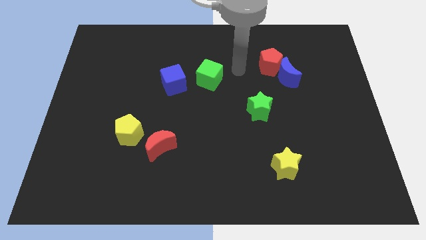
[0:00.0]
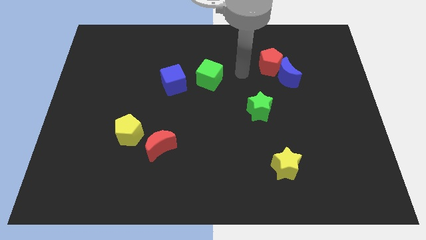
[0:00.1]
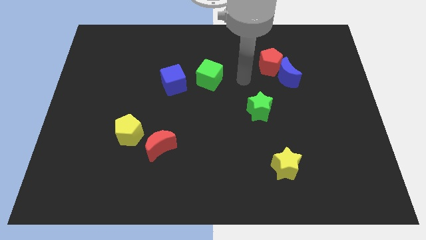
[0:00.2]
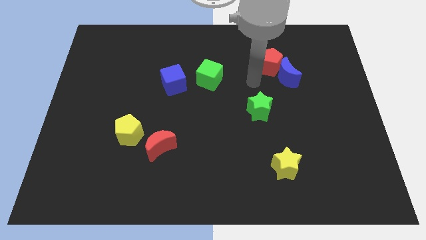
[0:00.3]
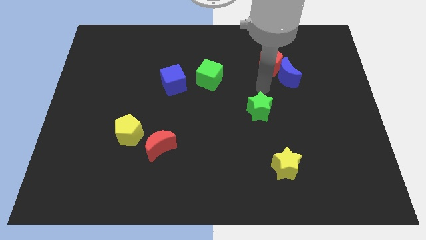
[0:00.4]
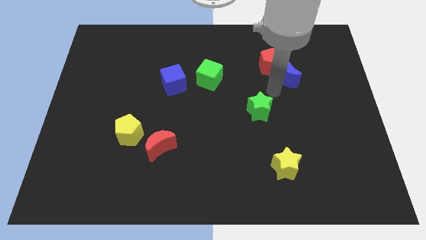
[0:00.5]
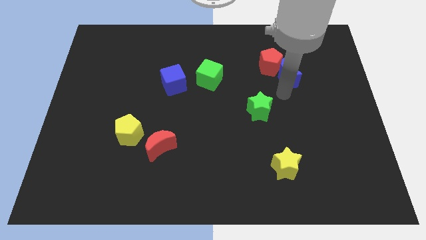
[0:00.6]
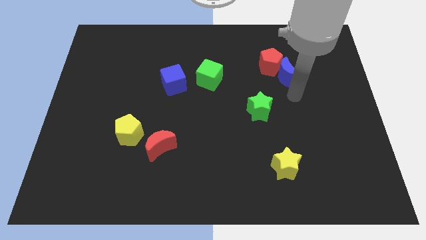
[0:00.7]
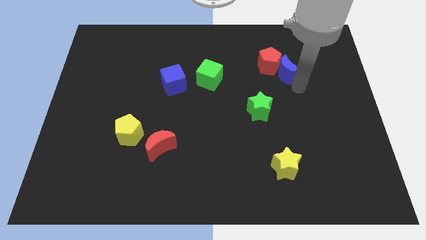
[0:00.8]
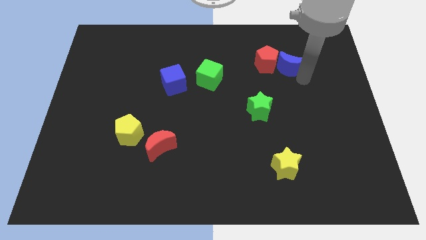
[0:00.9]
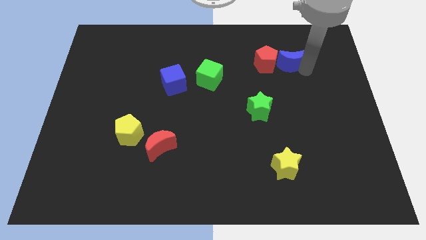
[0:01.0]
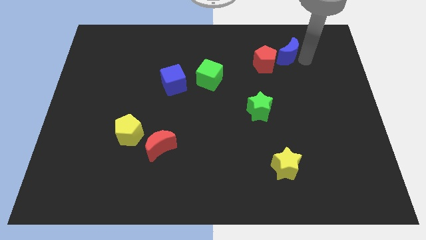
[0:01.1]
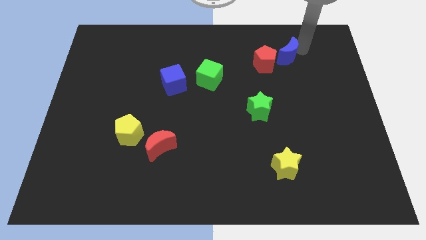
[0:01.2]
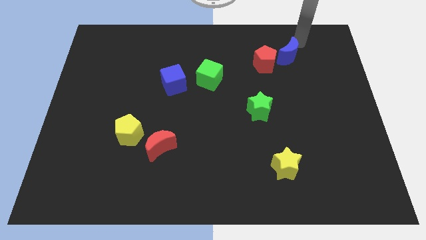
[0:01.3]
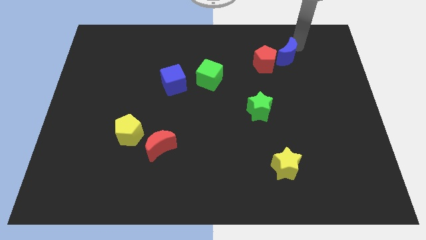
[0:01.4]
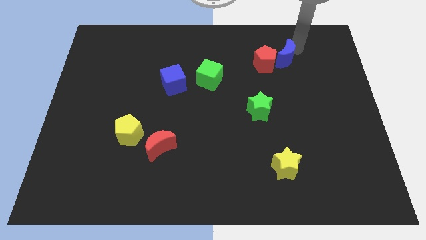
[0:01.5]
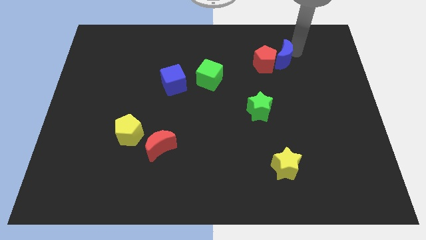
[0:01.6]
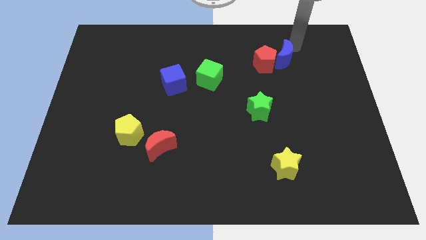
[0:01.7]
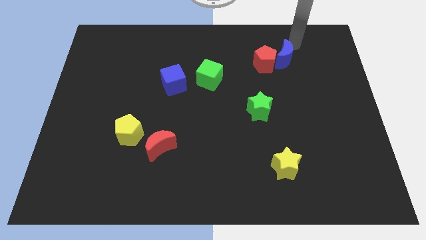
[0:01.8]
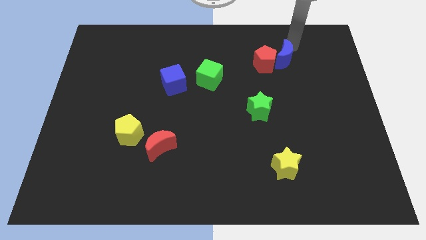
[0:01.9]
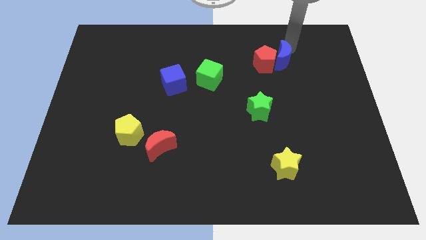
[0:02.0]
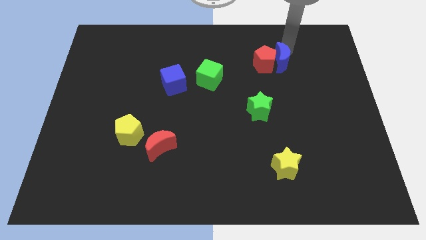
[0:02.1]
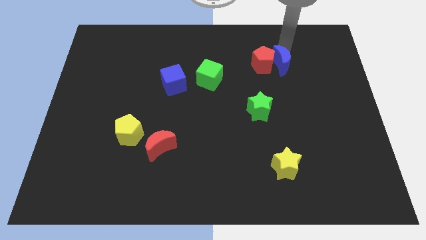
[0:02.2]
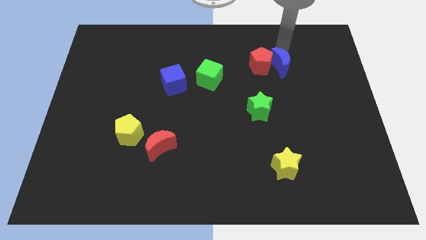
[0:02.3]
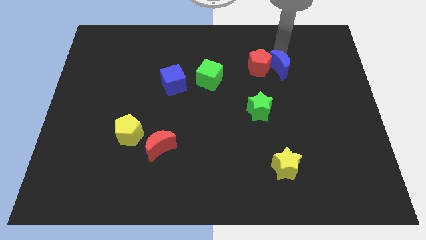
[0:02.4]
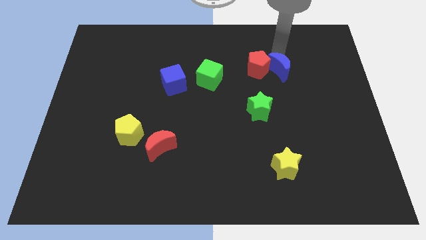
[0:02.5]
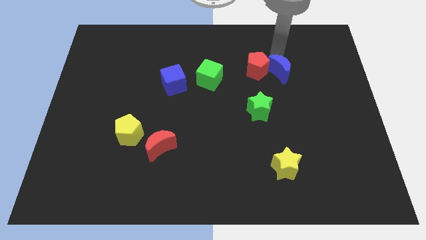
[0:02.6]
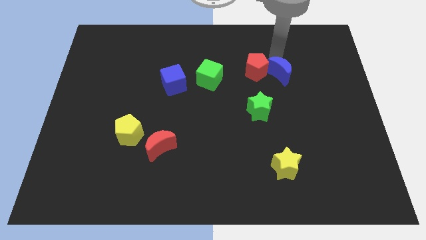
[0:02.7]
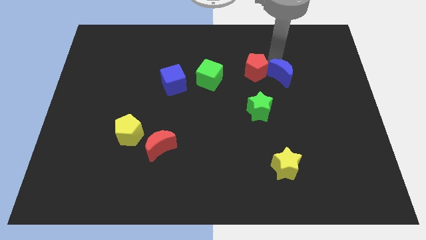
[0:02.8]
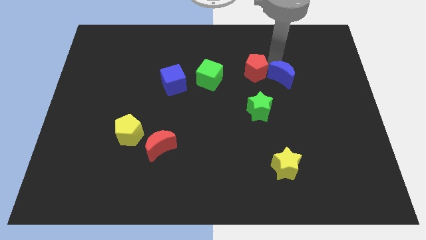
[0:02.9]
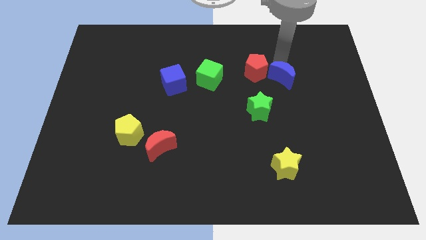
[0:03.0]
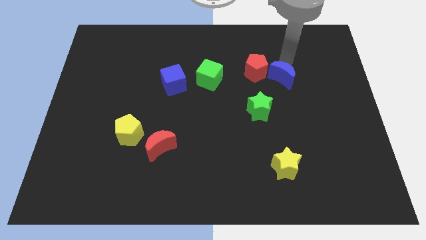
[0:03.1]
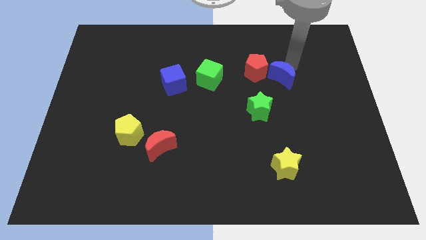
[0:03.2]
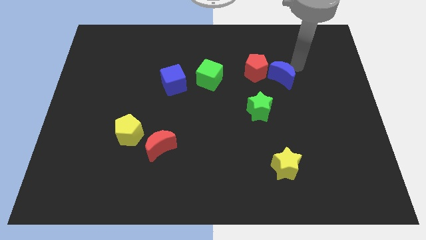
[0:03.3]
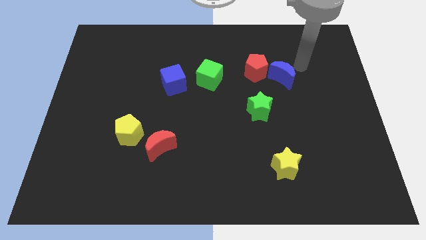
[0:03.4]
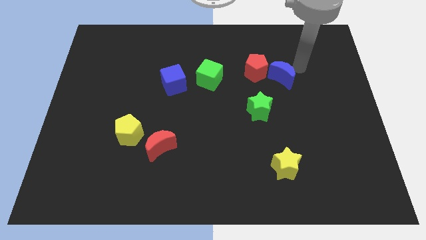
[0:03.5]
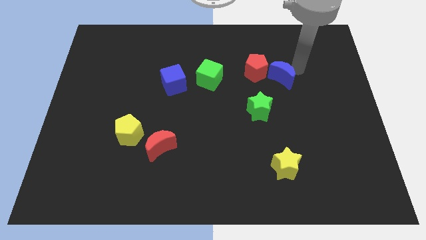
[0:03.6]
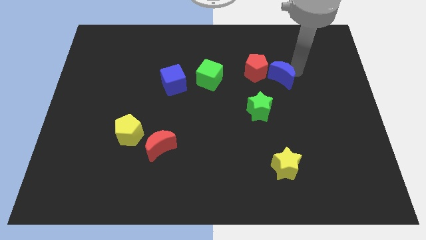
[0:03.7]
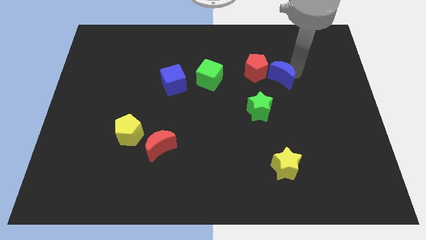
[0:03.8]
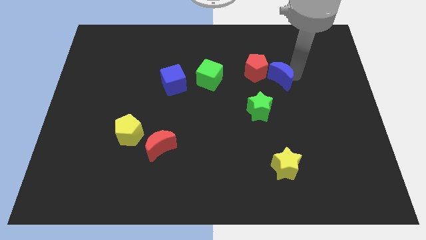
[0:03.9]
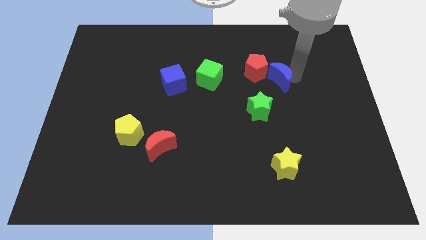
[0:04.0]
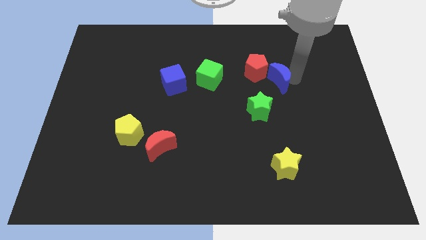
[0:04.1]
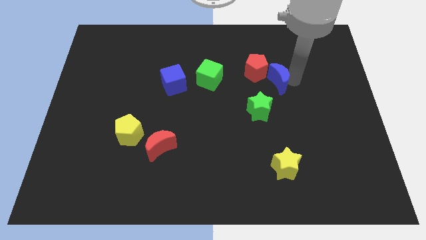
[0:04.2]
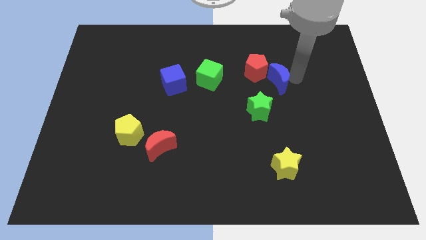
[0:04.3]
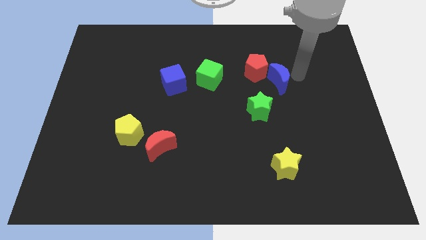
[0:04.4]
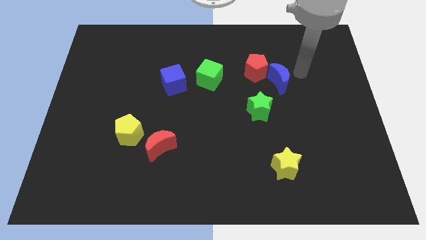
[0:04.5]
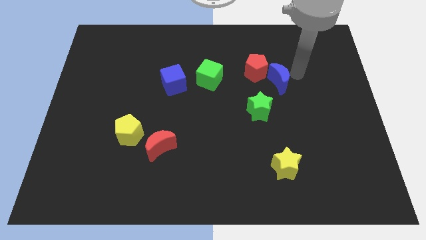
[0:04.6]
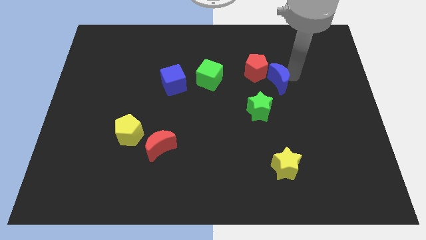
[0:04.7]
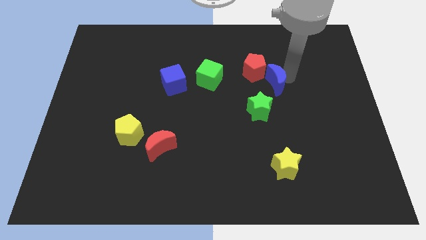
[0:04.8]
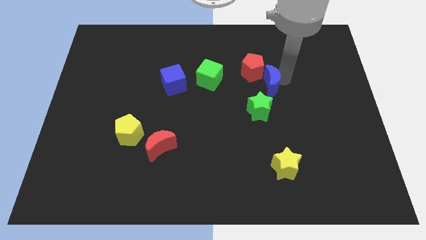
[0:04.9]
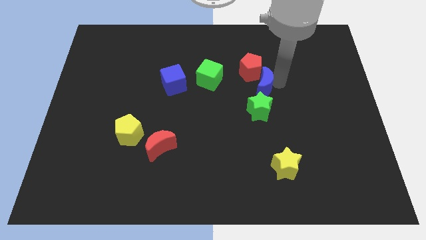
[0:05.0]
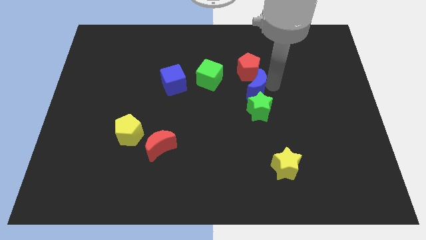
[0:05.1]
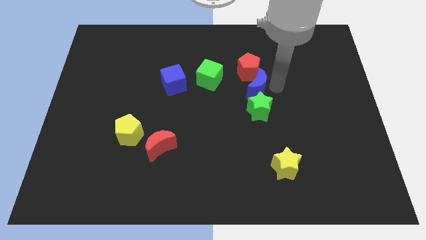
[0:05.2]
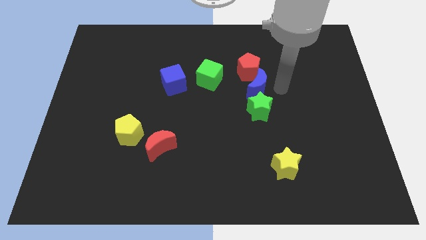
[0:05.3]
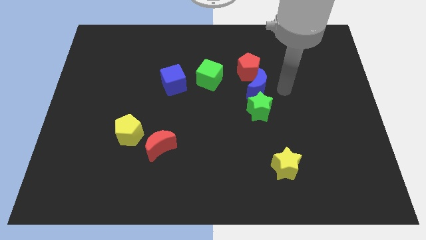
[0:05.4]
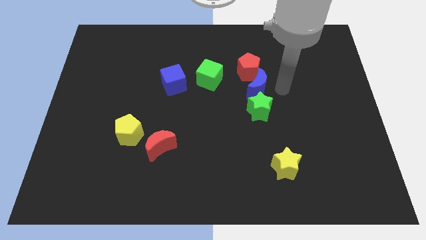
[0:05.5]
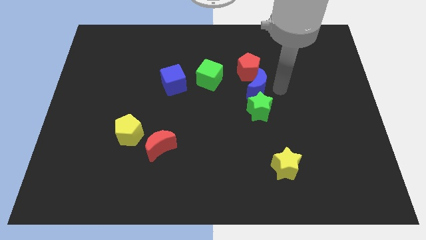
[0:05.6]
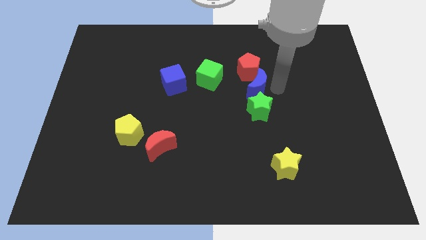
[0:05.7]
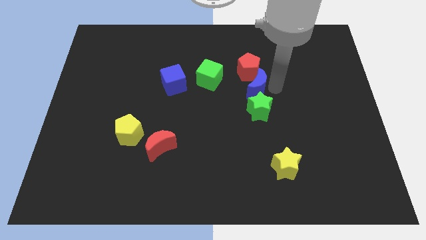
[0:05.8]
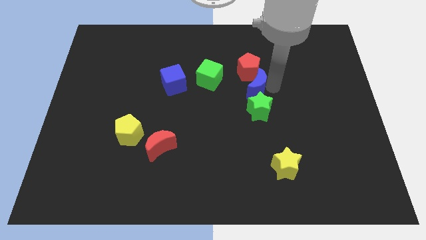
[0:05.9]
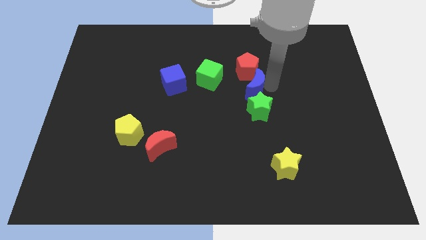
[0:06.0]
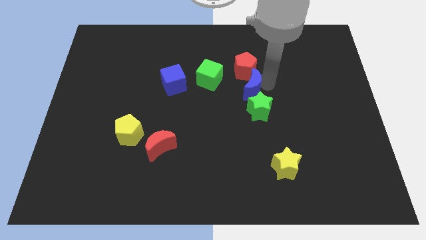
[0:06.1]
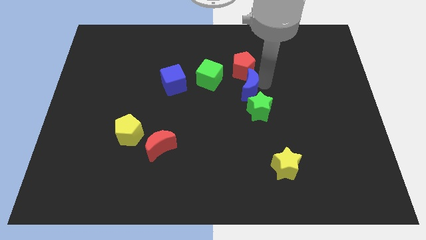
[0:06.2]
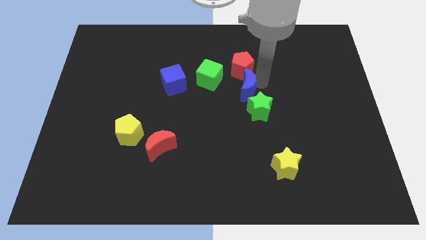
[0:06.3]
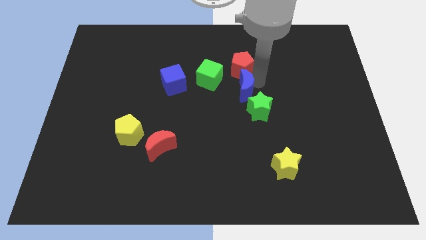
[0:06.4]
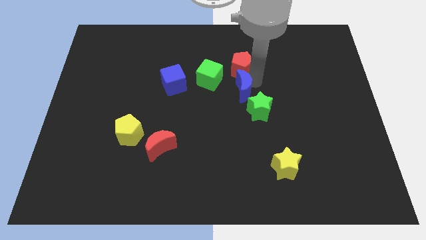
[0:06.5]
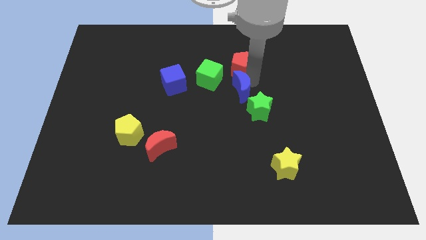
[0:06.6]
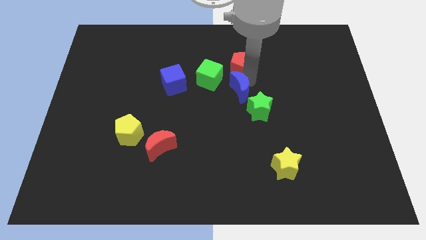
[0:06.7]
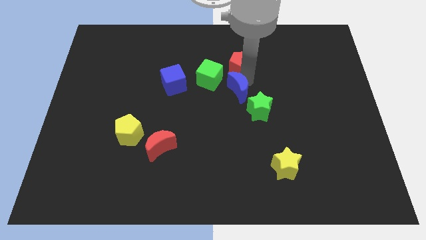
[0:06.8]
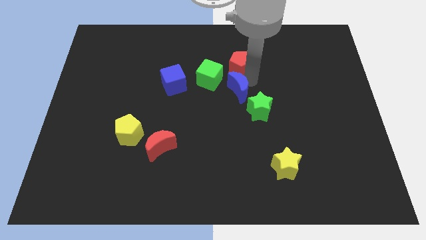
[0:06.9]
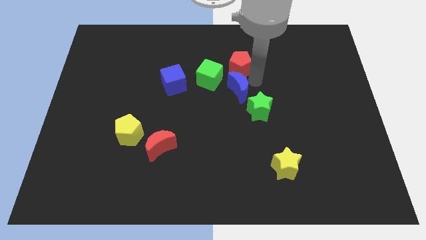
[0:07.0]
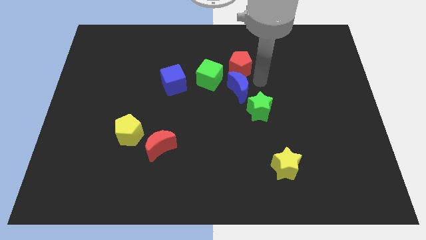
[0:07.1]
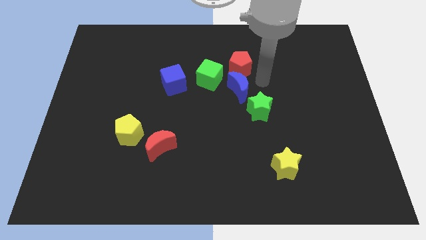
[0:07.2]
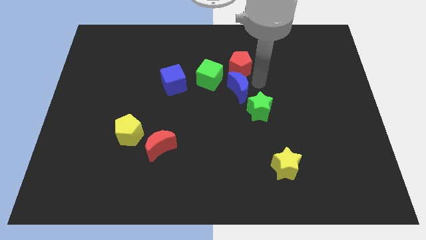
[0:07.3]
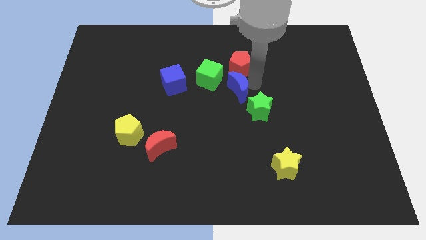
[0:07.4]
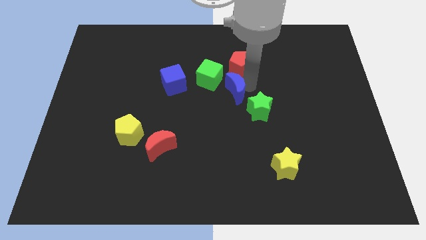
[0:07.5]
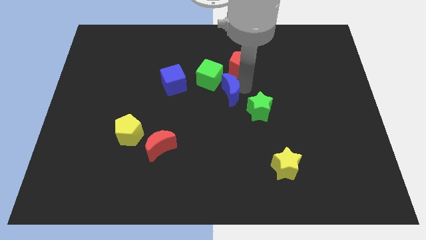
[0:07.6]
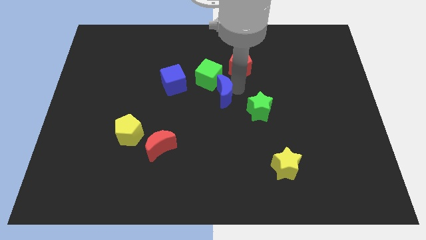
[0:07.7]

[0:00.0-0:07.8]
push the blue moon left of the green star
